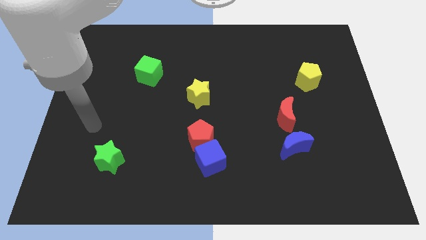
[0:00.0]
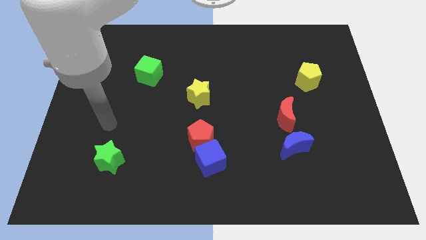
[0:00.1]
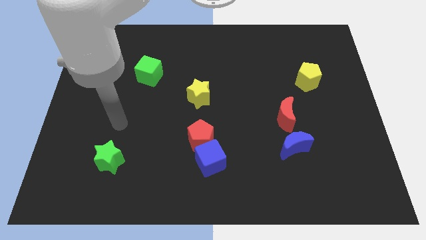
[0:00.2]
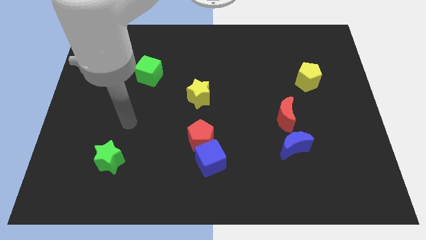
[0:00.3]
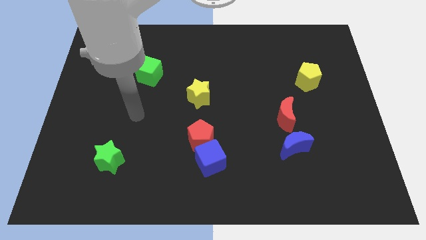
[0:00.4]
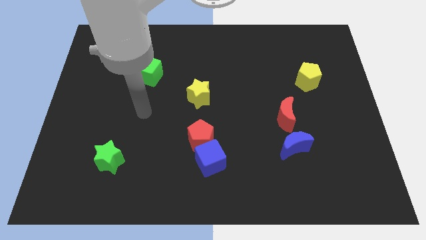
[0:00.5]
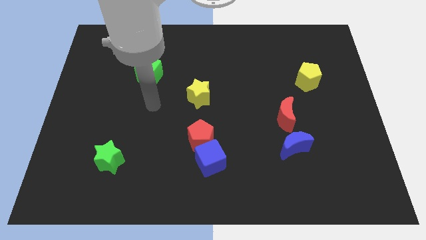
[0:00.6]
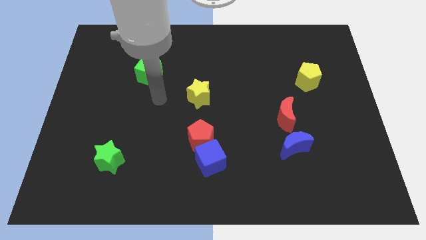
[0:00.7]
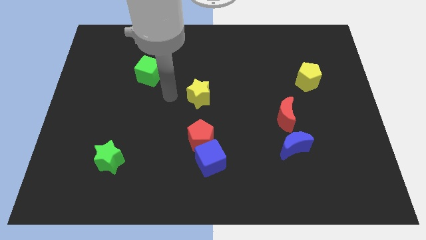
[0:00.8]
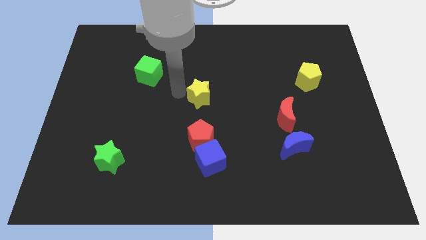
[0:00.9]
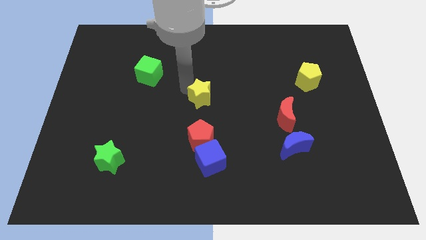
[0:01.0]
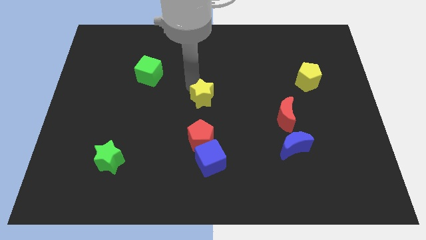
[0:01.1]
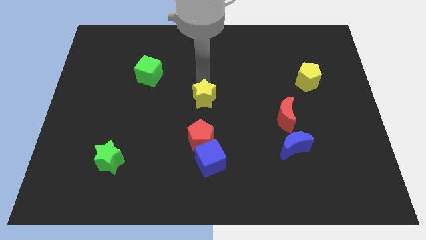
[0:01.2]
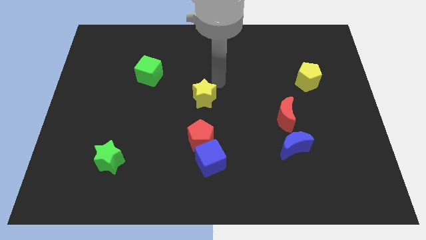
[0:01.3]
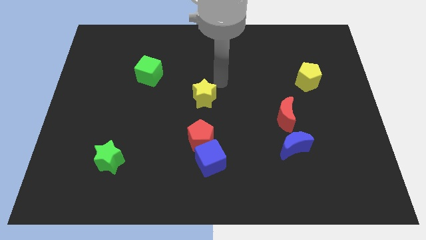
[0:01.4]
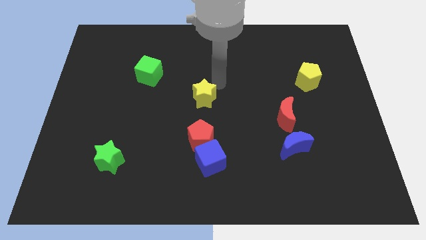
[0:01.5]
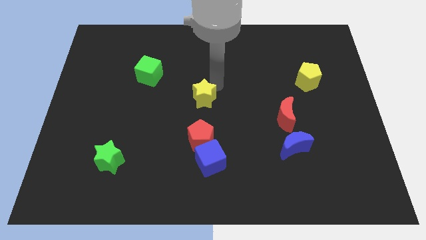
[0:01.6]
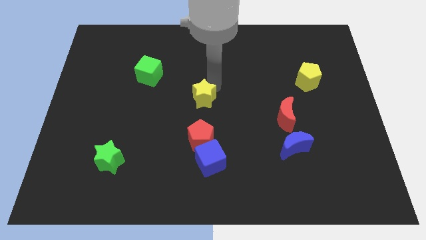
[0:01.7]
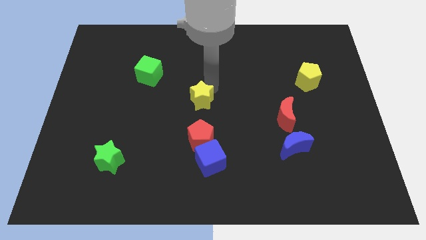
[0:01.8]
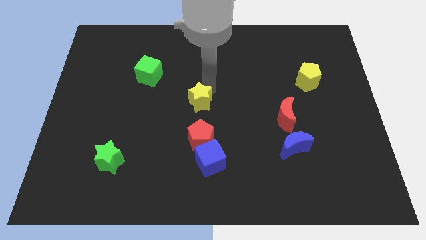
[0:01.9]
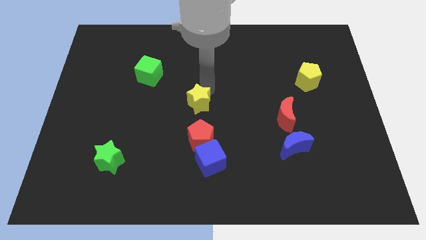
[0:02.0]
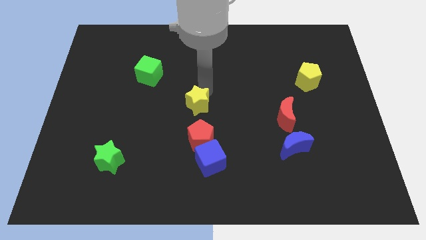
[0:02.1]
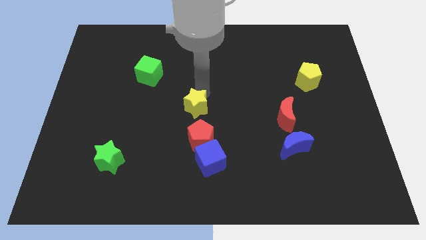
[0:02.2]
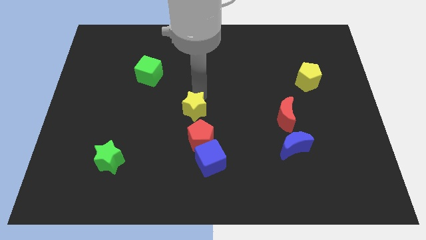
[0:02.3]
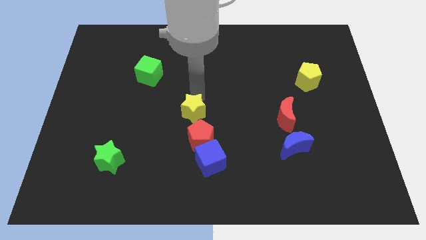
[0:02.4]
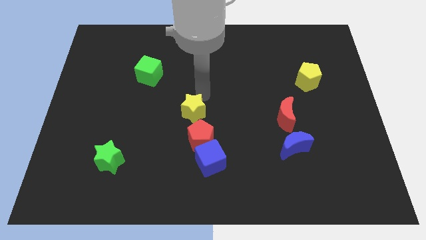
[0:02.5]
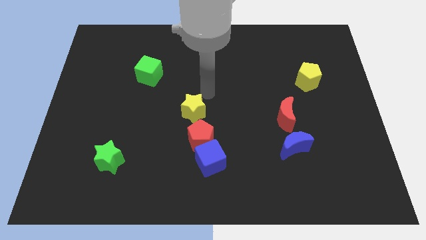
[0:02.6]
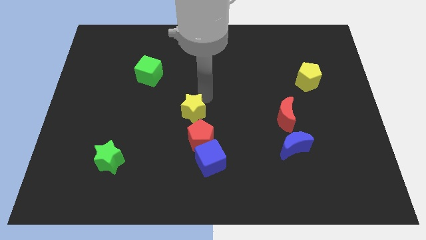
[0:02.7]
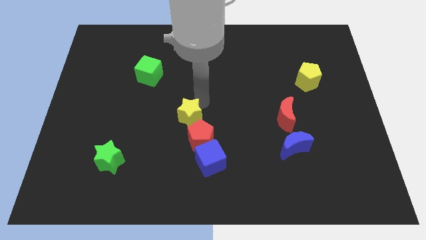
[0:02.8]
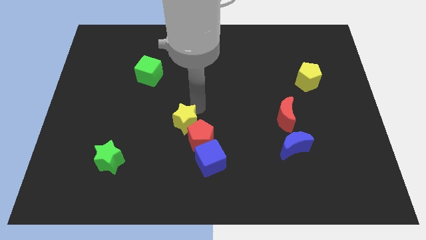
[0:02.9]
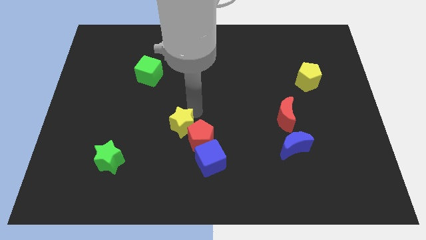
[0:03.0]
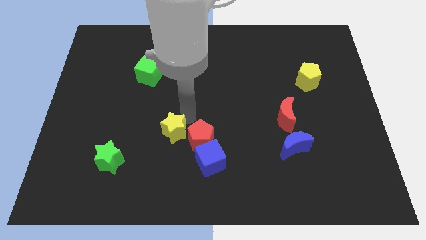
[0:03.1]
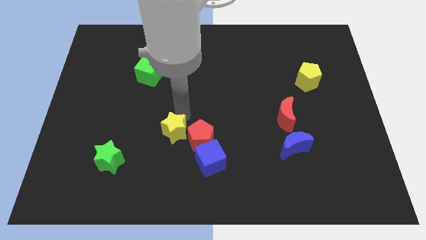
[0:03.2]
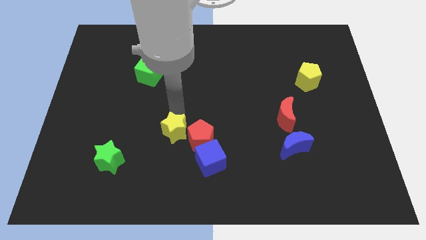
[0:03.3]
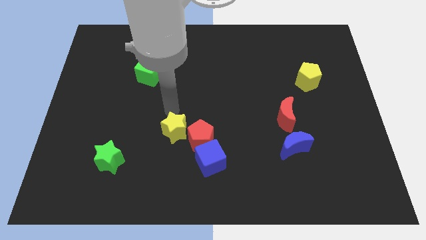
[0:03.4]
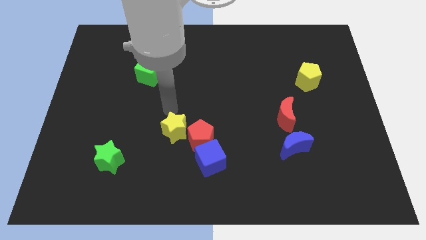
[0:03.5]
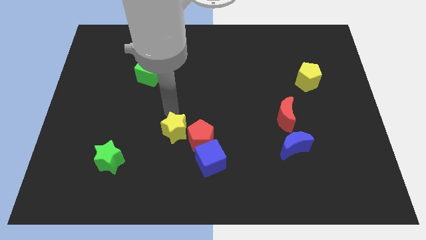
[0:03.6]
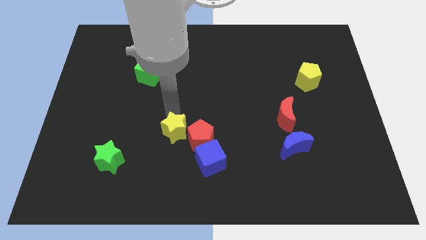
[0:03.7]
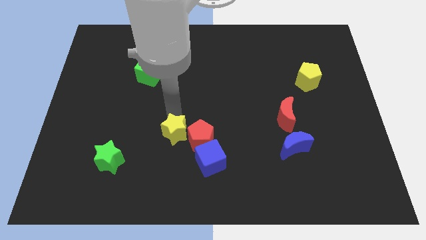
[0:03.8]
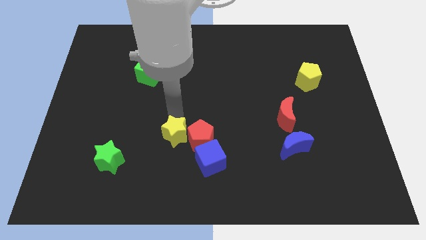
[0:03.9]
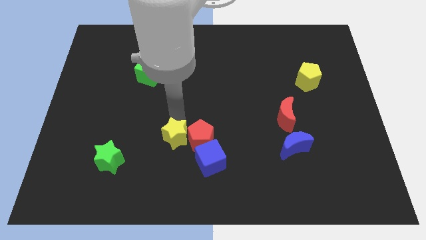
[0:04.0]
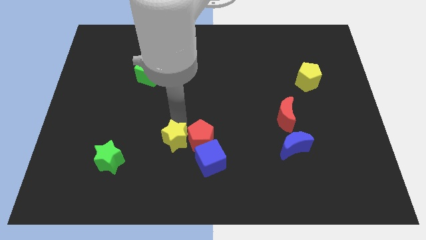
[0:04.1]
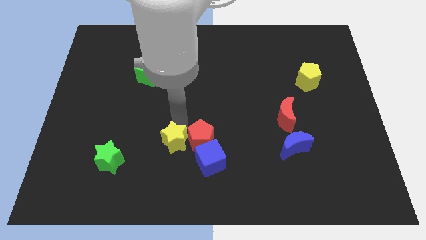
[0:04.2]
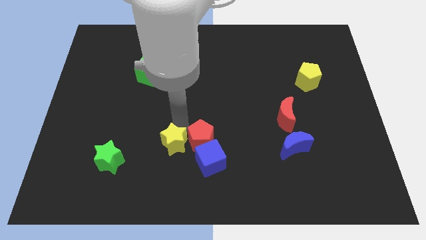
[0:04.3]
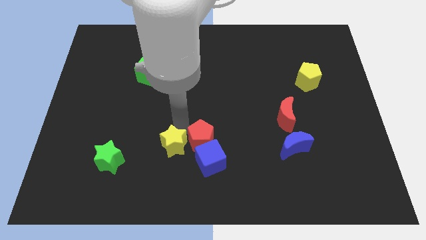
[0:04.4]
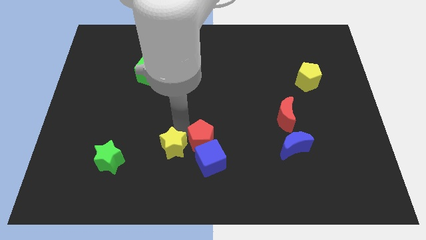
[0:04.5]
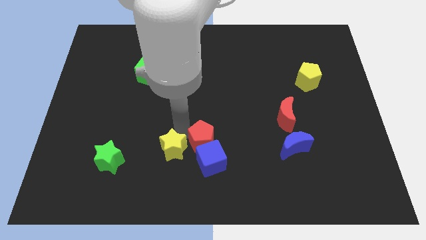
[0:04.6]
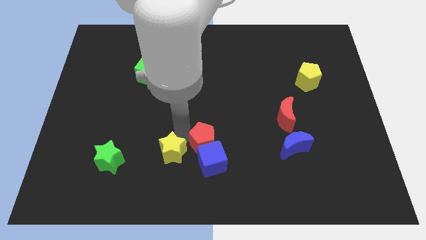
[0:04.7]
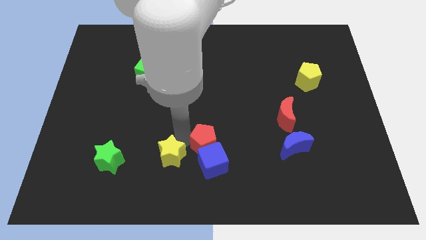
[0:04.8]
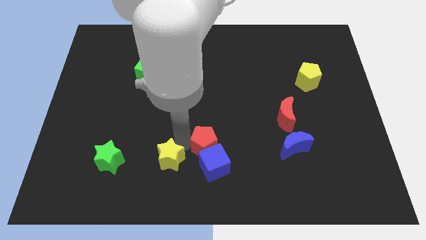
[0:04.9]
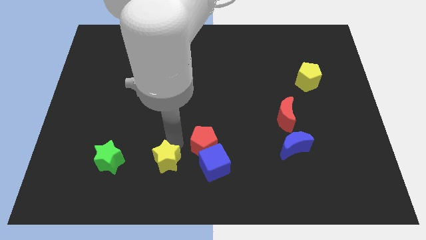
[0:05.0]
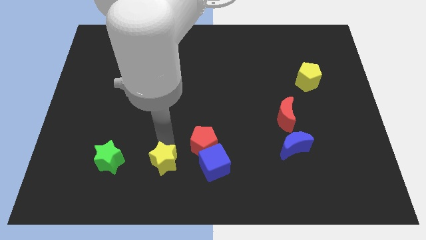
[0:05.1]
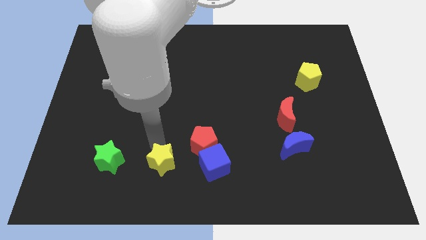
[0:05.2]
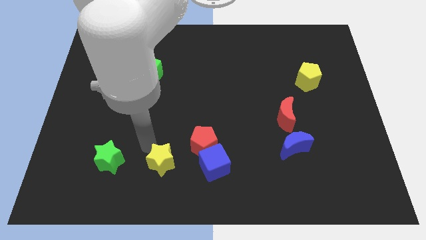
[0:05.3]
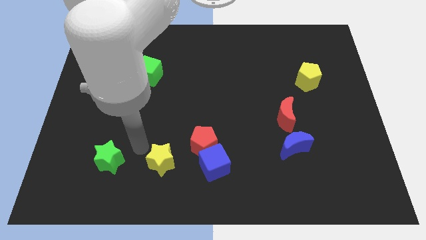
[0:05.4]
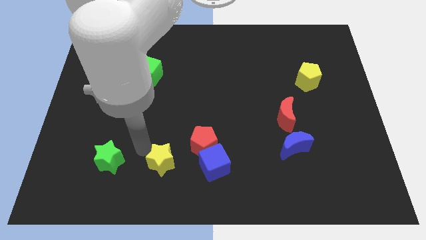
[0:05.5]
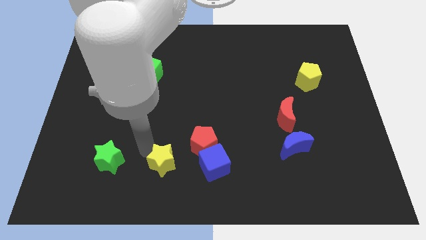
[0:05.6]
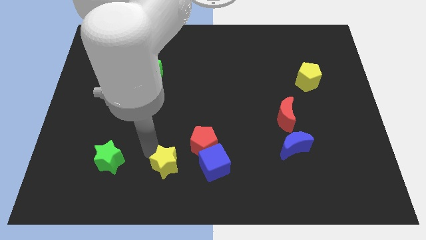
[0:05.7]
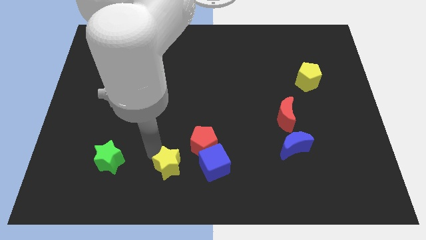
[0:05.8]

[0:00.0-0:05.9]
push the yellow star to the bottom

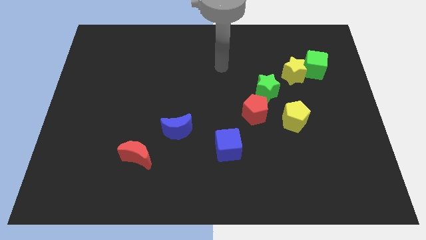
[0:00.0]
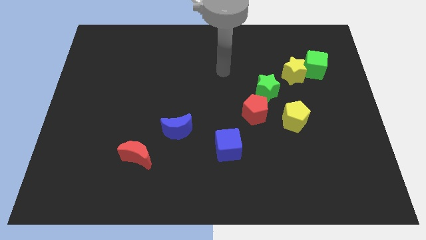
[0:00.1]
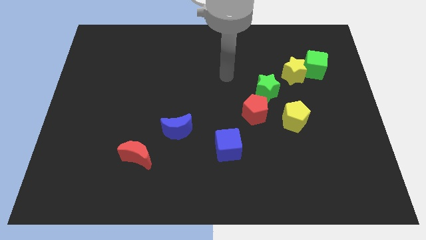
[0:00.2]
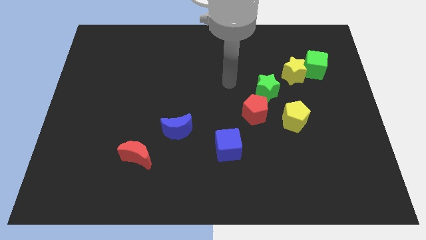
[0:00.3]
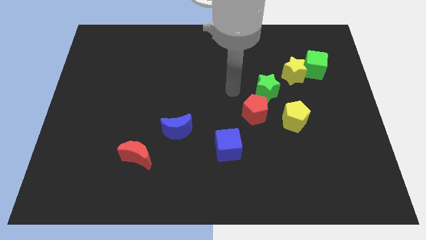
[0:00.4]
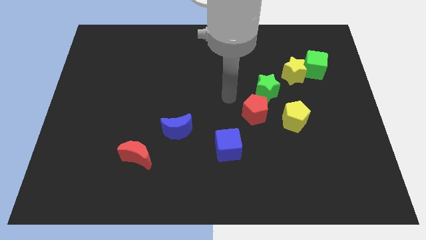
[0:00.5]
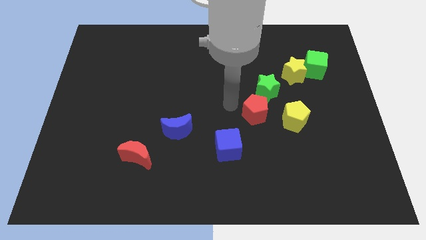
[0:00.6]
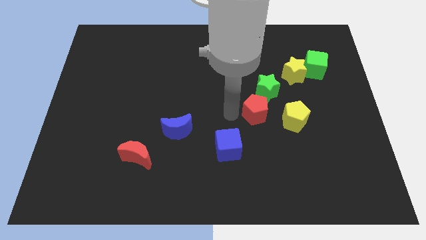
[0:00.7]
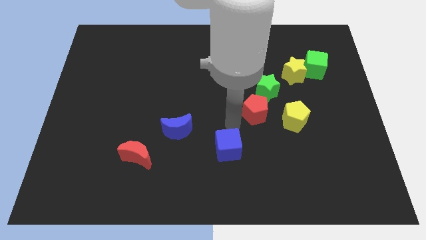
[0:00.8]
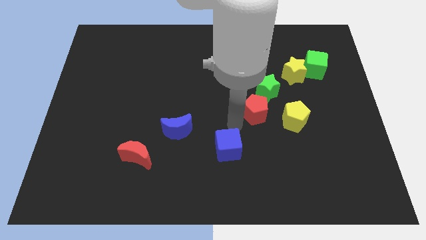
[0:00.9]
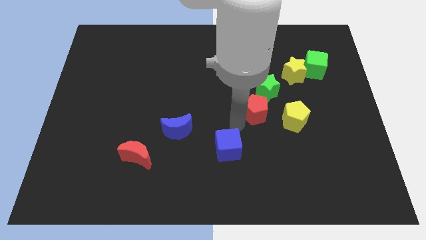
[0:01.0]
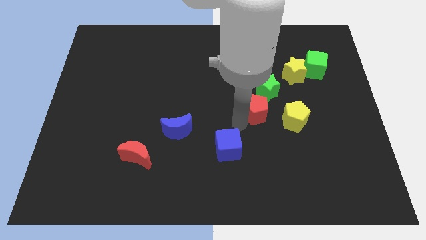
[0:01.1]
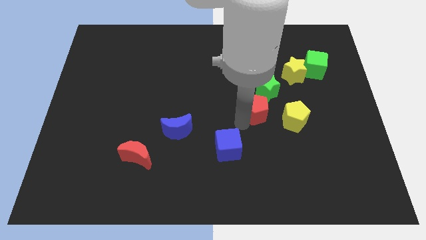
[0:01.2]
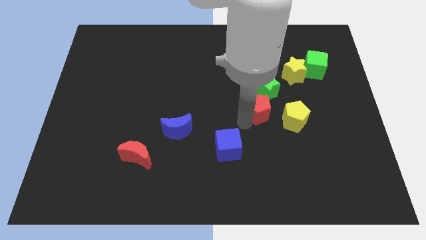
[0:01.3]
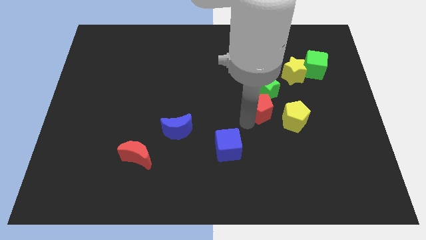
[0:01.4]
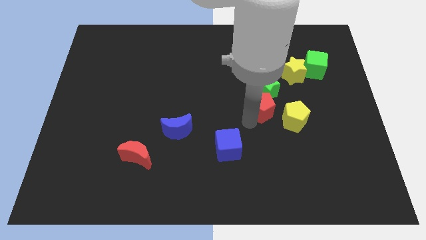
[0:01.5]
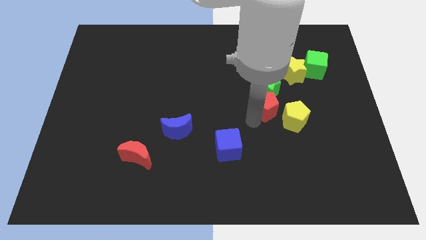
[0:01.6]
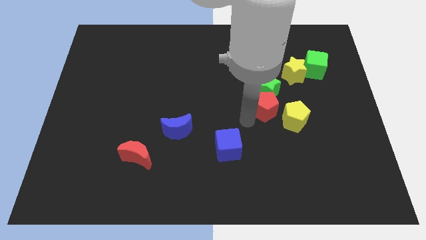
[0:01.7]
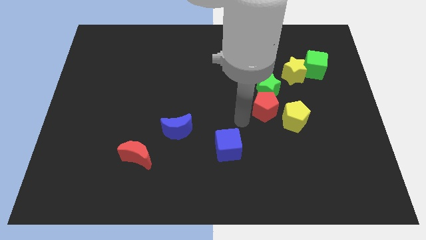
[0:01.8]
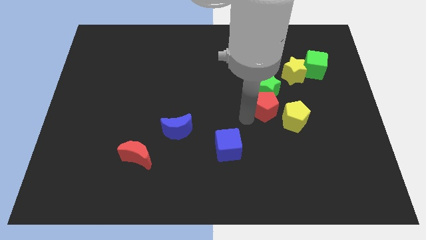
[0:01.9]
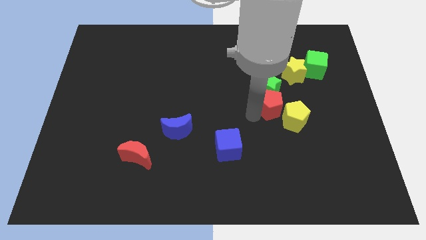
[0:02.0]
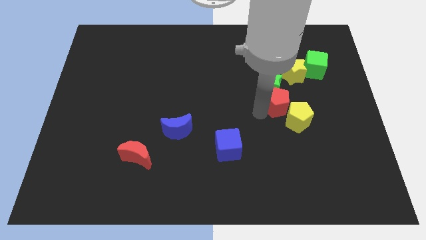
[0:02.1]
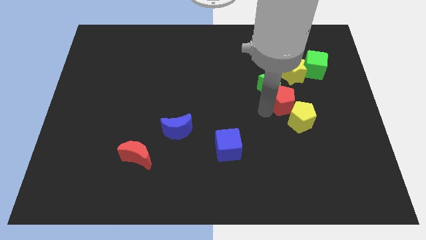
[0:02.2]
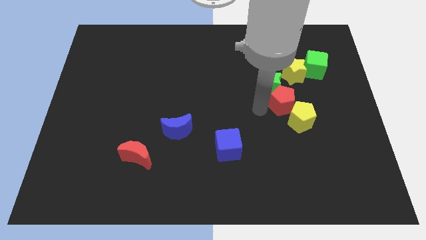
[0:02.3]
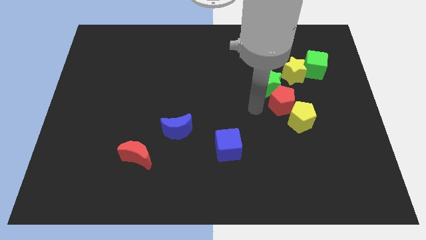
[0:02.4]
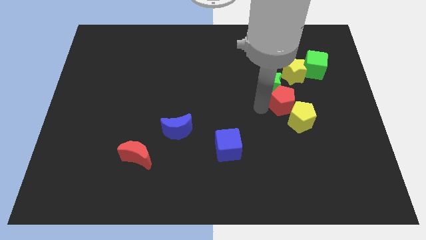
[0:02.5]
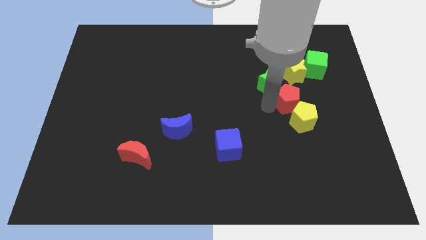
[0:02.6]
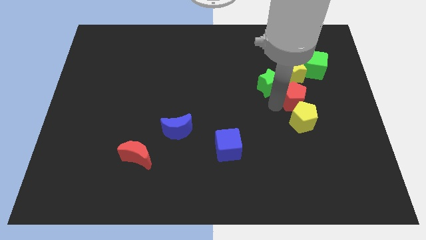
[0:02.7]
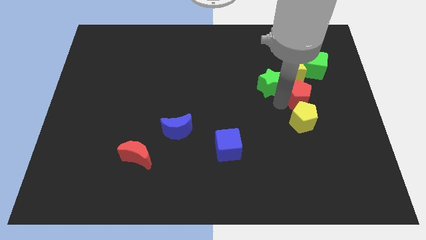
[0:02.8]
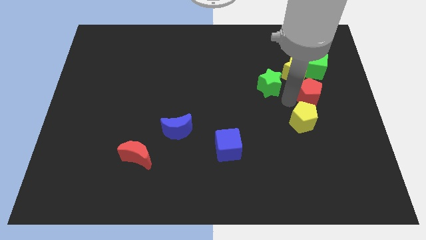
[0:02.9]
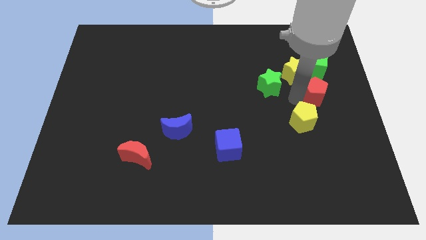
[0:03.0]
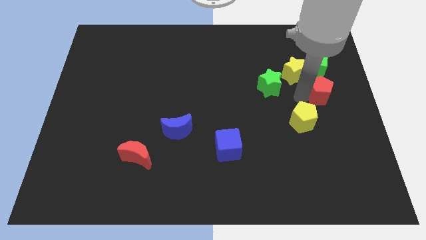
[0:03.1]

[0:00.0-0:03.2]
slide the red pentagon to the right side
